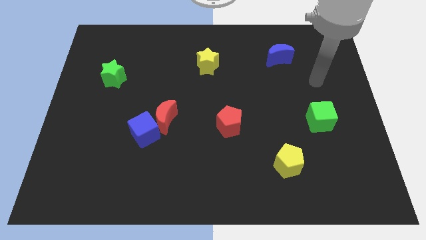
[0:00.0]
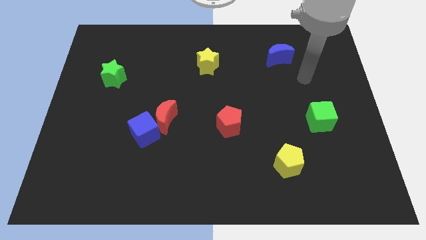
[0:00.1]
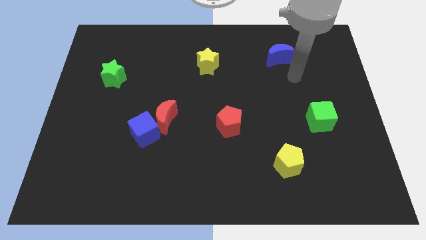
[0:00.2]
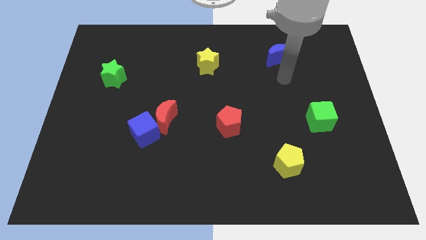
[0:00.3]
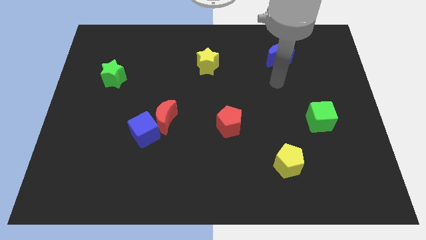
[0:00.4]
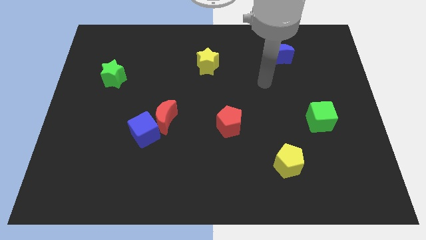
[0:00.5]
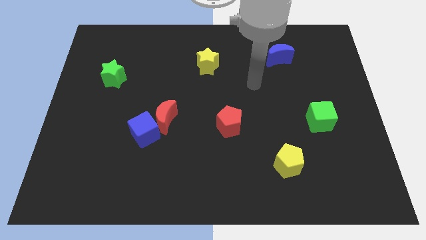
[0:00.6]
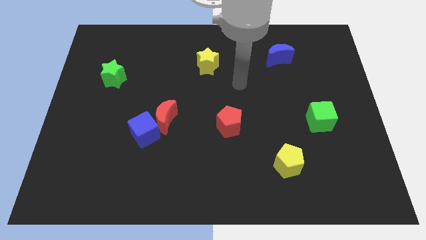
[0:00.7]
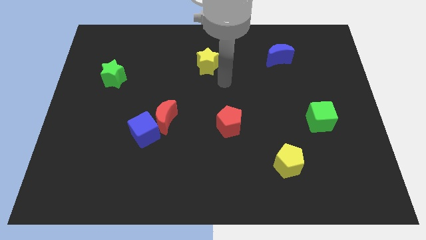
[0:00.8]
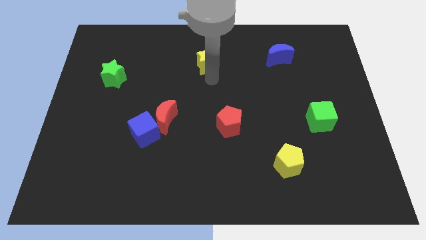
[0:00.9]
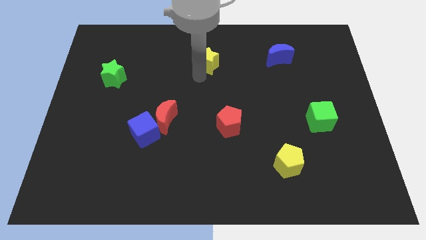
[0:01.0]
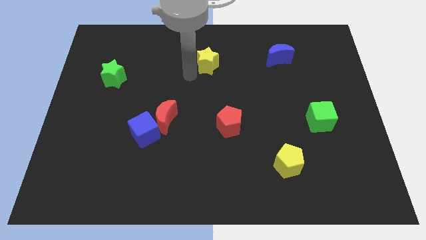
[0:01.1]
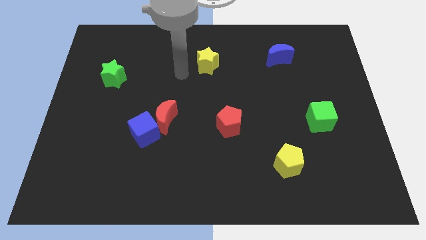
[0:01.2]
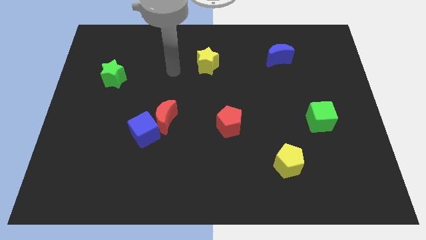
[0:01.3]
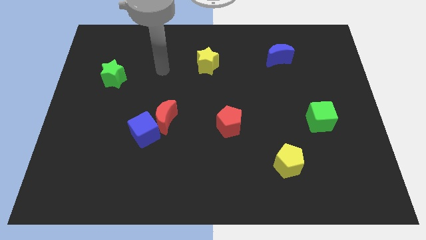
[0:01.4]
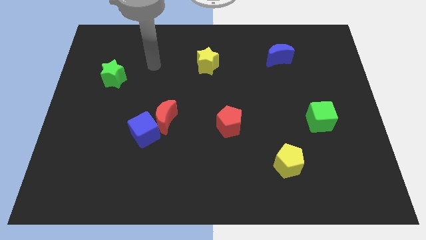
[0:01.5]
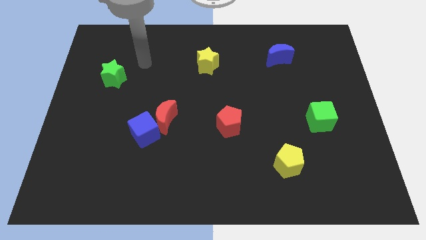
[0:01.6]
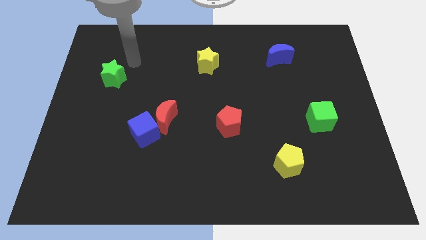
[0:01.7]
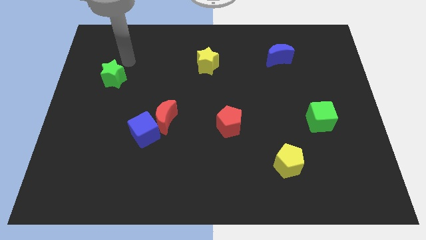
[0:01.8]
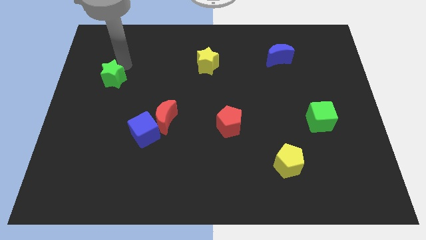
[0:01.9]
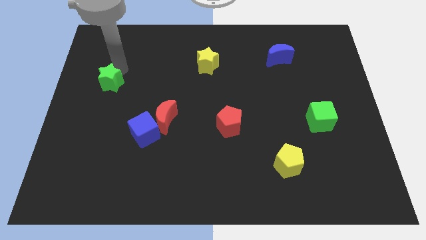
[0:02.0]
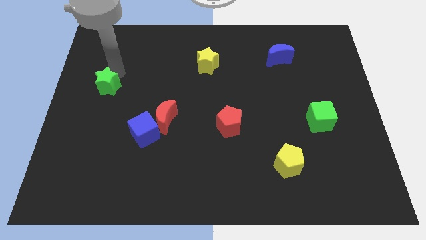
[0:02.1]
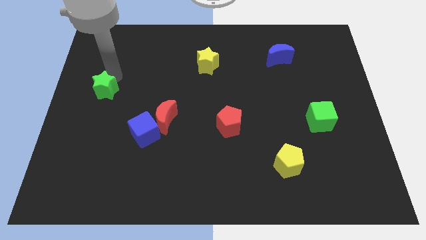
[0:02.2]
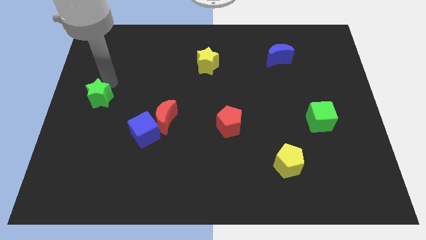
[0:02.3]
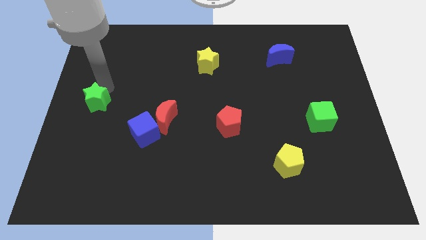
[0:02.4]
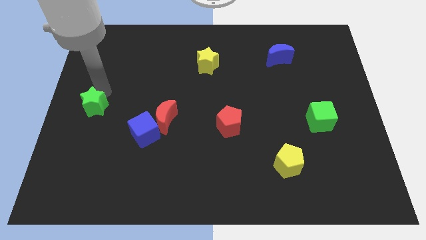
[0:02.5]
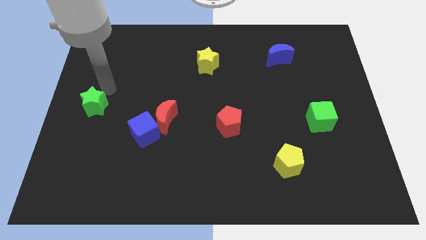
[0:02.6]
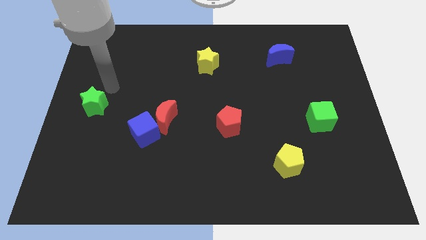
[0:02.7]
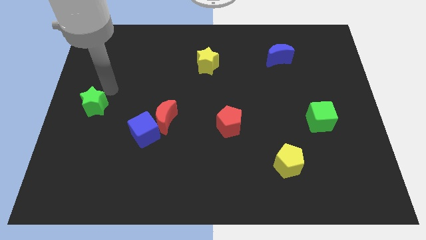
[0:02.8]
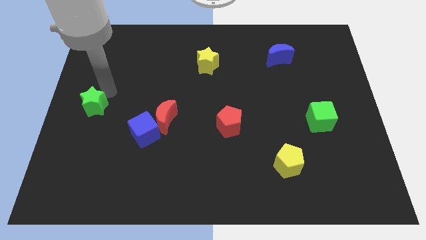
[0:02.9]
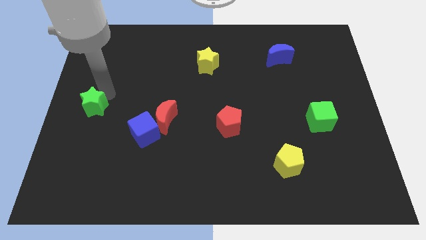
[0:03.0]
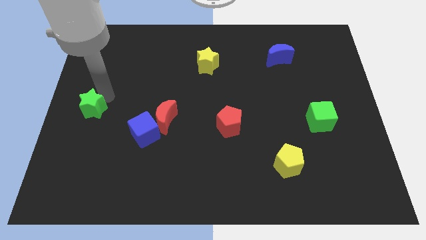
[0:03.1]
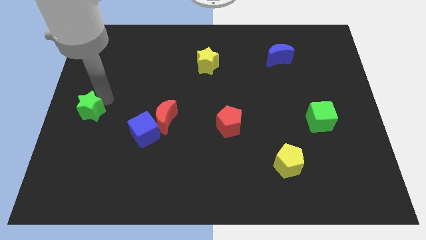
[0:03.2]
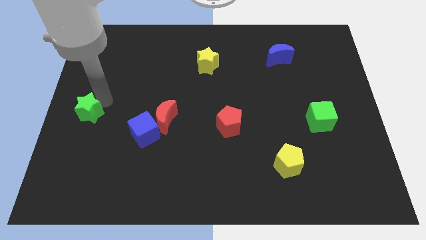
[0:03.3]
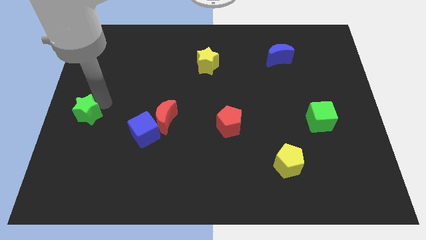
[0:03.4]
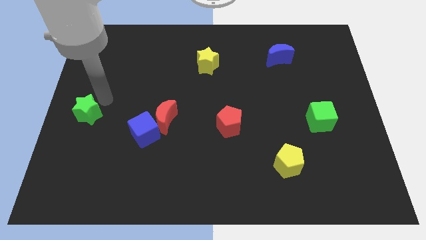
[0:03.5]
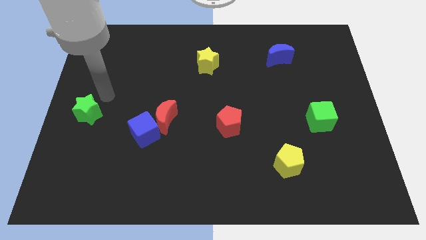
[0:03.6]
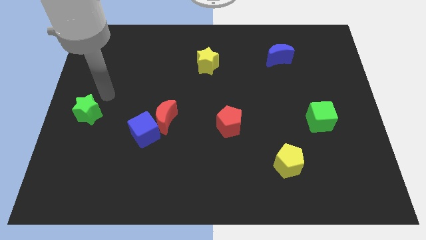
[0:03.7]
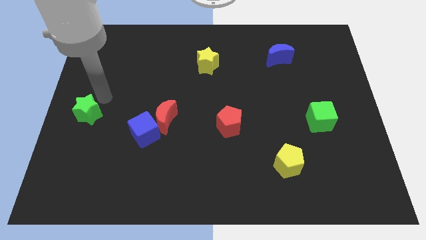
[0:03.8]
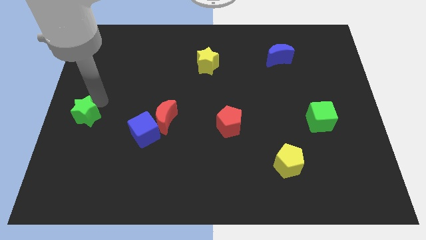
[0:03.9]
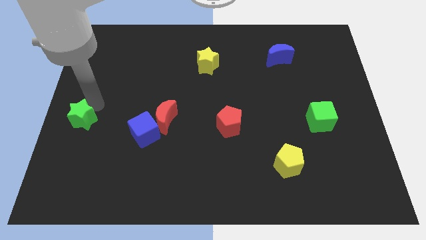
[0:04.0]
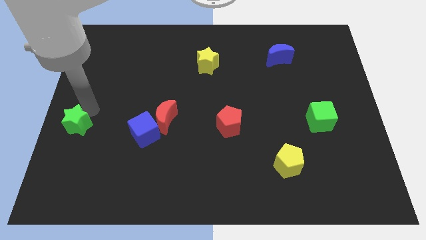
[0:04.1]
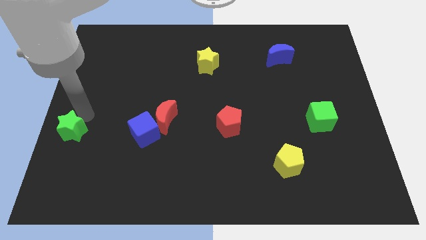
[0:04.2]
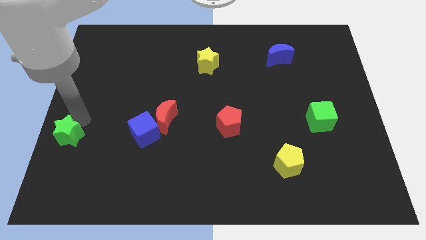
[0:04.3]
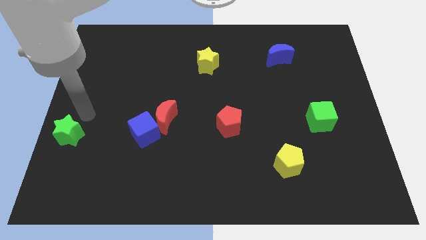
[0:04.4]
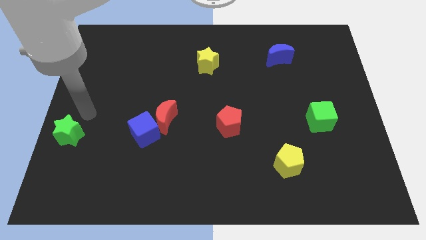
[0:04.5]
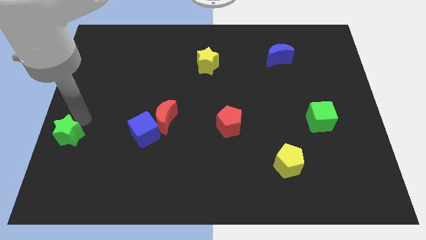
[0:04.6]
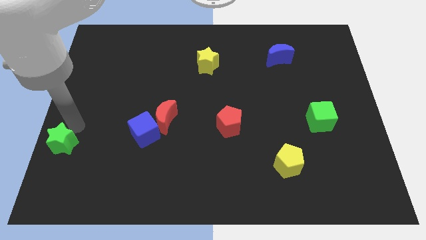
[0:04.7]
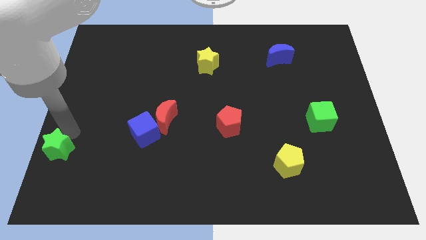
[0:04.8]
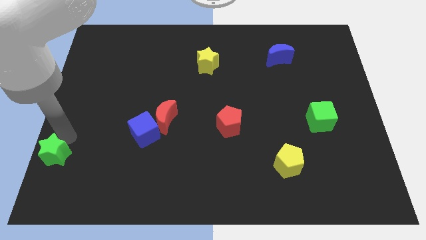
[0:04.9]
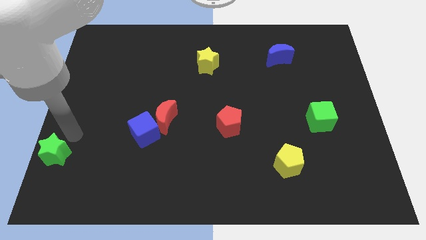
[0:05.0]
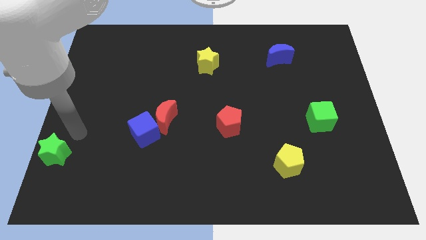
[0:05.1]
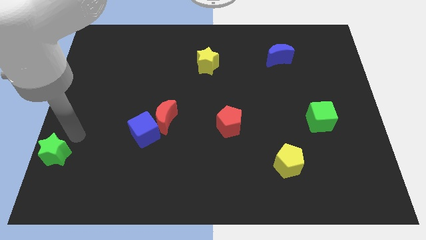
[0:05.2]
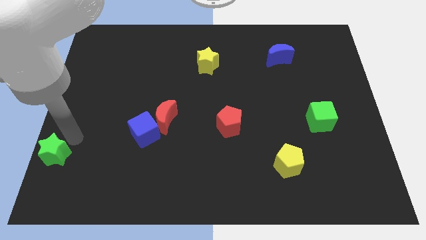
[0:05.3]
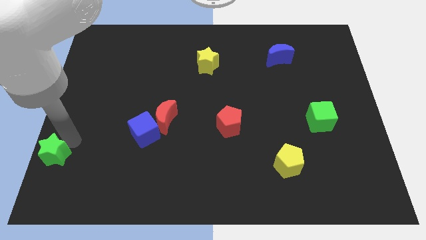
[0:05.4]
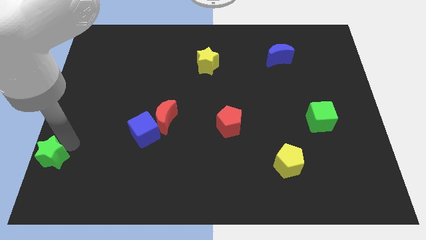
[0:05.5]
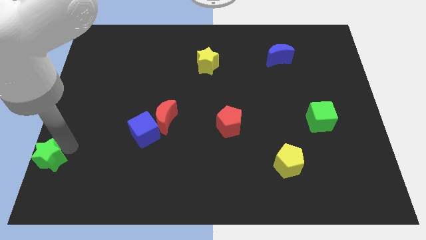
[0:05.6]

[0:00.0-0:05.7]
slide the green star to the bottom left corner
